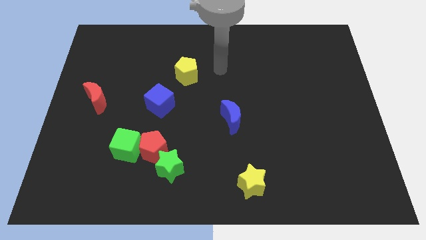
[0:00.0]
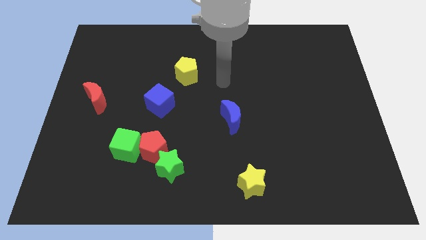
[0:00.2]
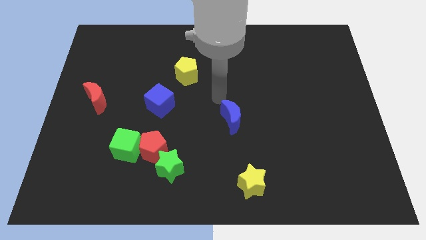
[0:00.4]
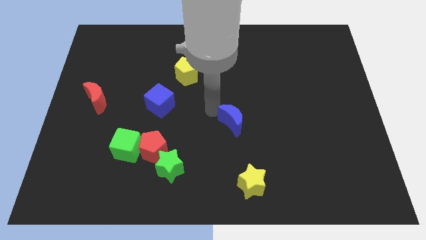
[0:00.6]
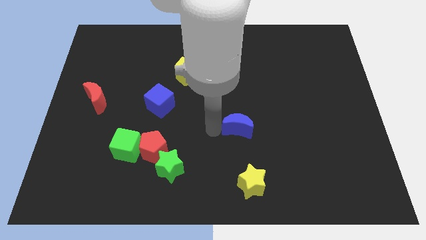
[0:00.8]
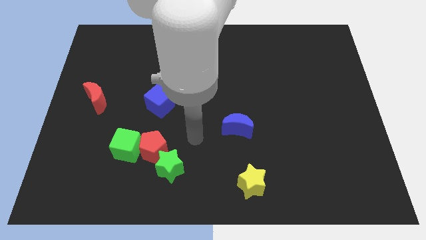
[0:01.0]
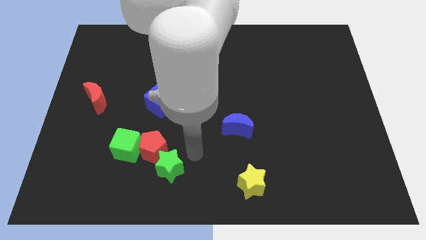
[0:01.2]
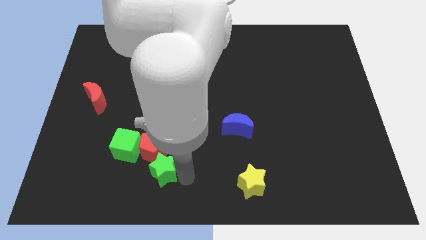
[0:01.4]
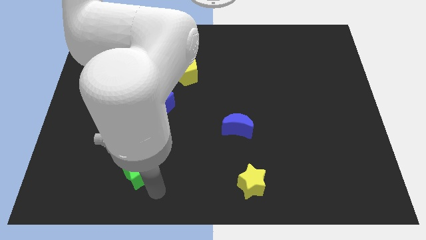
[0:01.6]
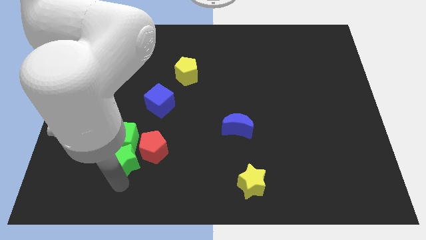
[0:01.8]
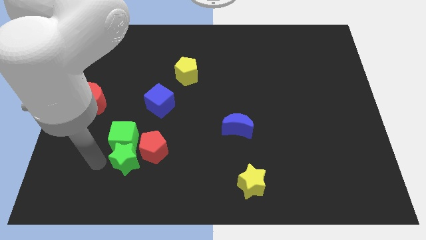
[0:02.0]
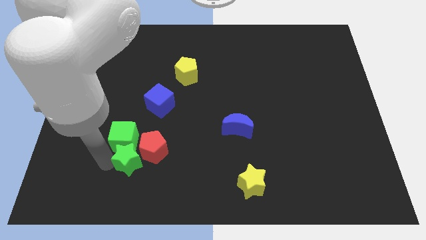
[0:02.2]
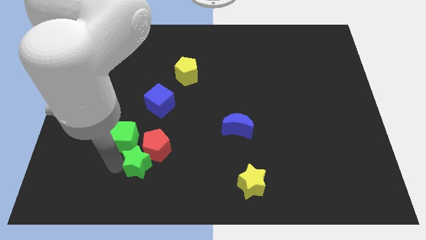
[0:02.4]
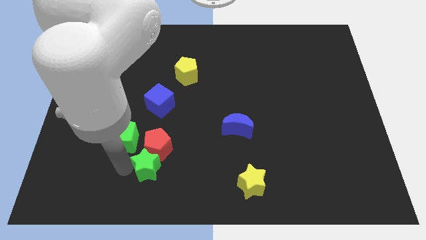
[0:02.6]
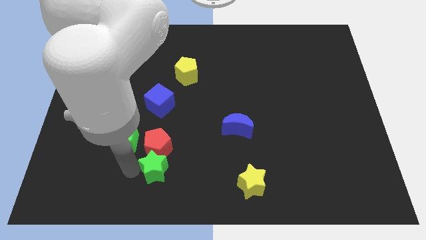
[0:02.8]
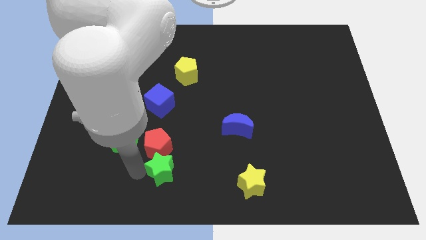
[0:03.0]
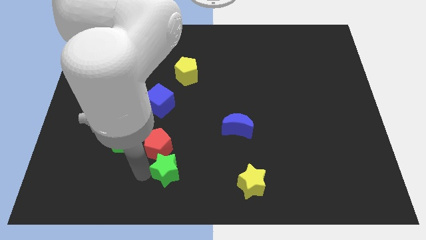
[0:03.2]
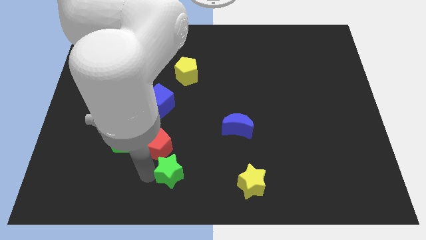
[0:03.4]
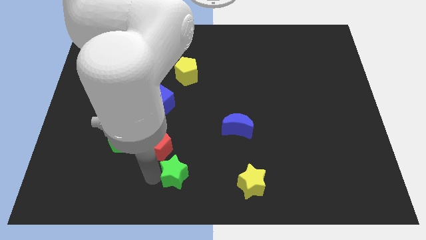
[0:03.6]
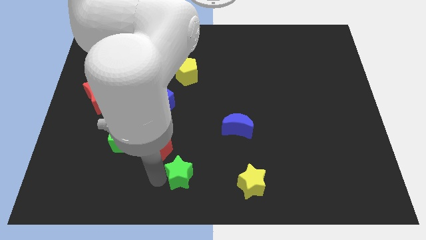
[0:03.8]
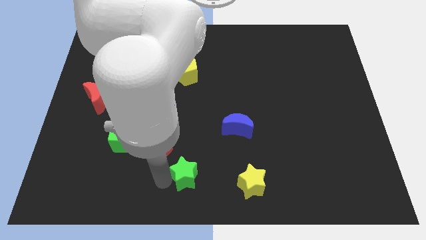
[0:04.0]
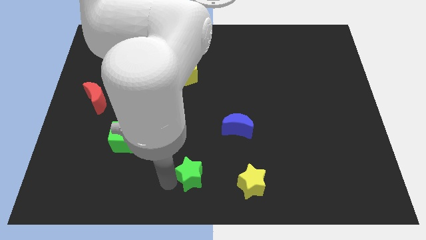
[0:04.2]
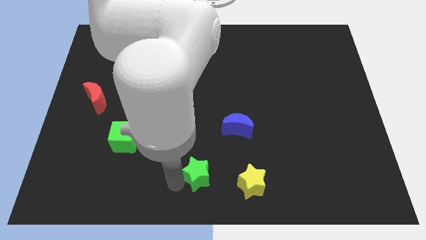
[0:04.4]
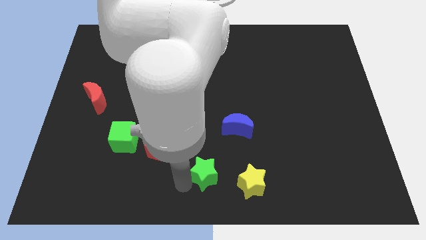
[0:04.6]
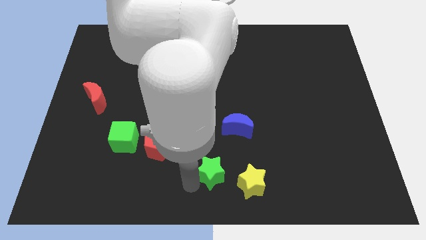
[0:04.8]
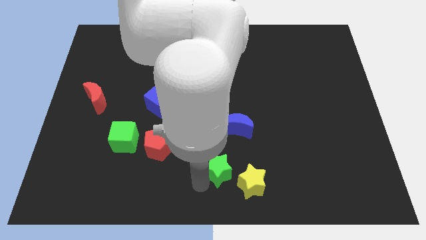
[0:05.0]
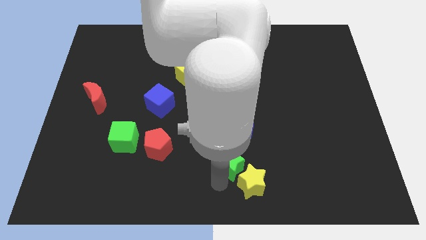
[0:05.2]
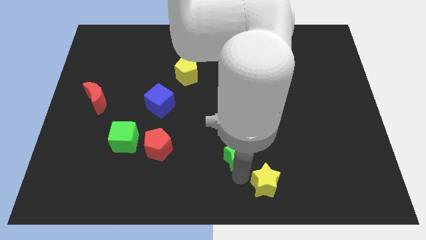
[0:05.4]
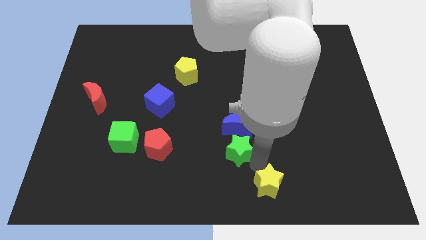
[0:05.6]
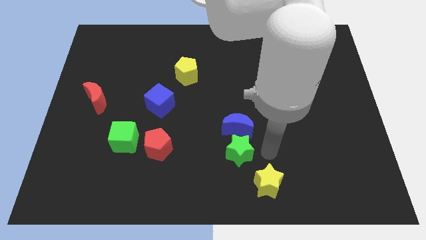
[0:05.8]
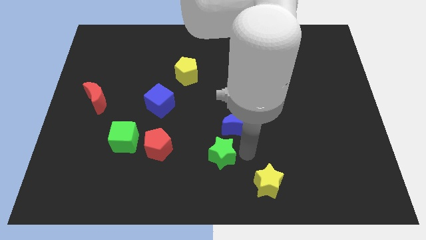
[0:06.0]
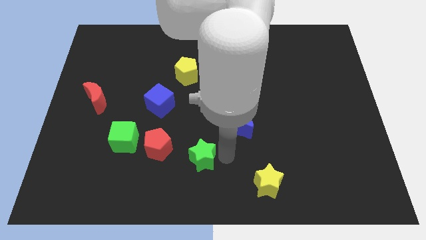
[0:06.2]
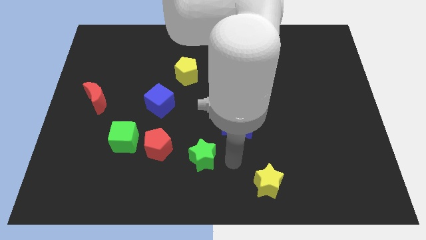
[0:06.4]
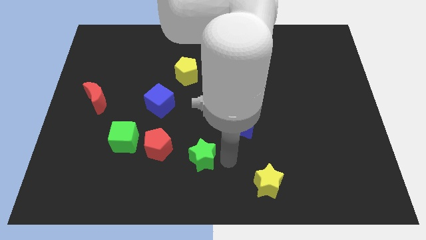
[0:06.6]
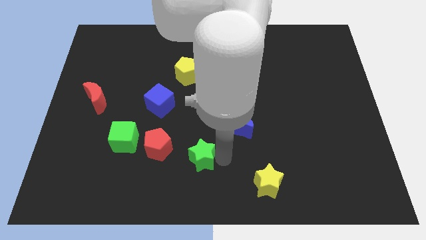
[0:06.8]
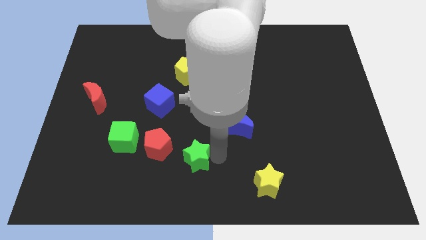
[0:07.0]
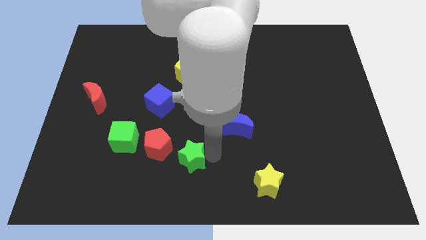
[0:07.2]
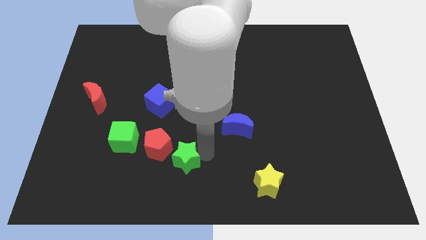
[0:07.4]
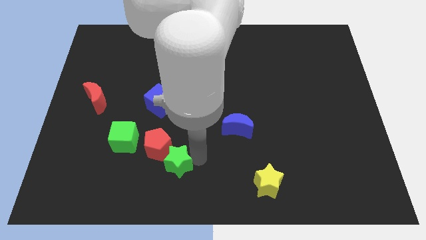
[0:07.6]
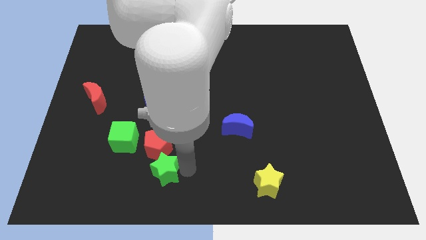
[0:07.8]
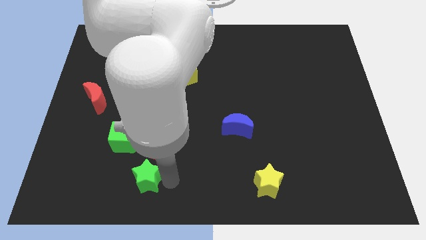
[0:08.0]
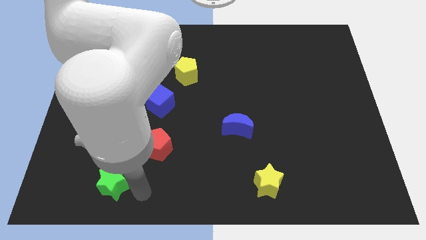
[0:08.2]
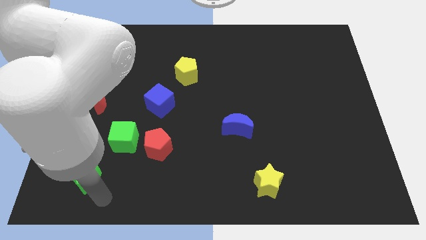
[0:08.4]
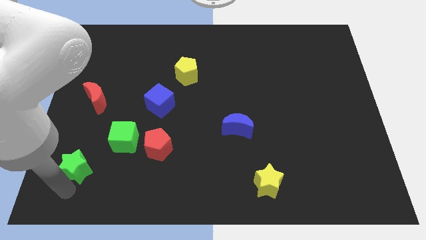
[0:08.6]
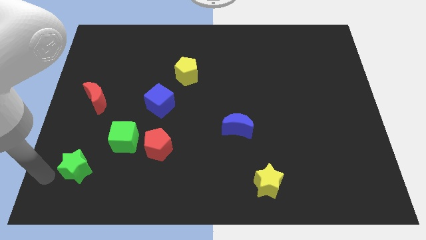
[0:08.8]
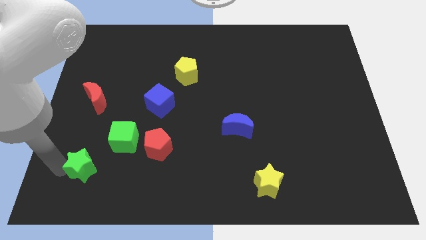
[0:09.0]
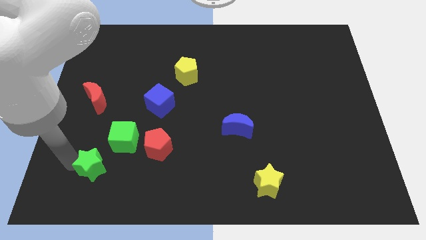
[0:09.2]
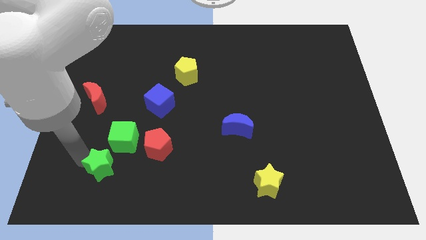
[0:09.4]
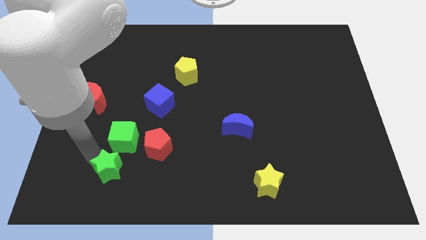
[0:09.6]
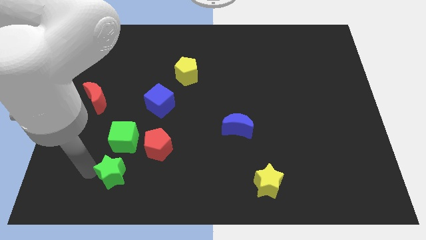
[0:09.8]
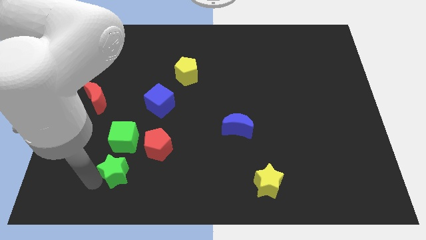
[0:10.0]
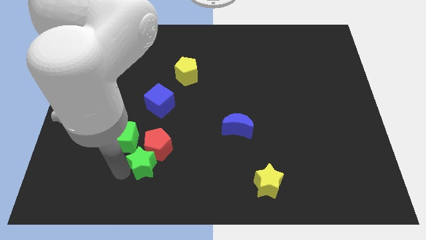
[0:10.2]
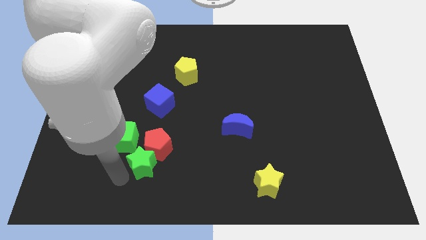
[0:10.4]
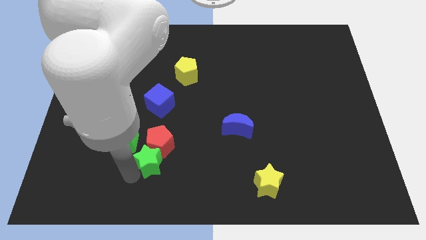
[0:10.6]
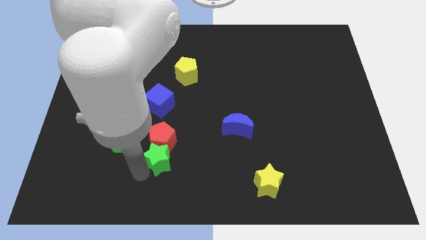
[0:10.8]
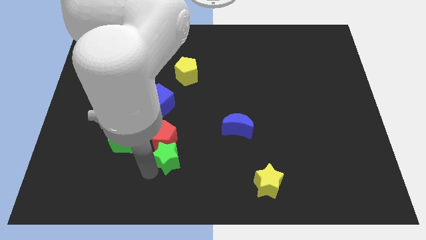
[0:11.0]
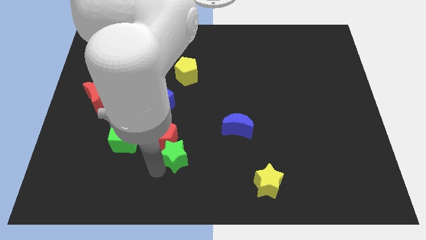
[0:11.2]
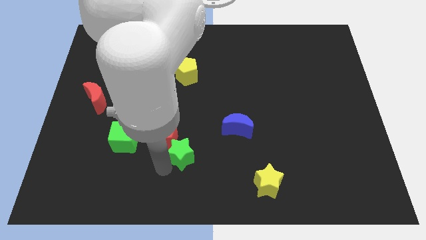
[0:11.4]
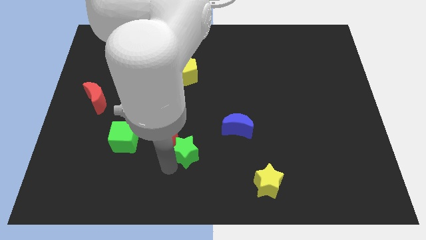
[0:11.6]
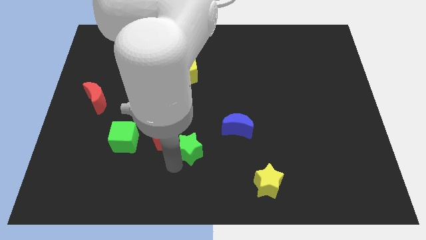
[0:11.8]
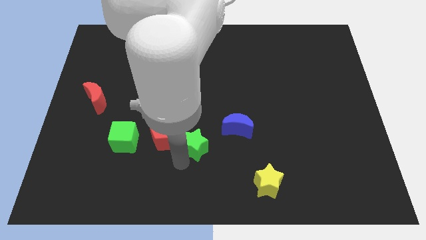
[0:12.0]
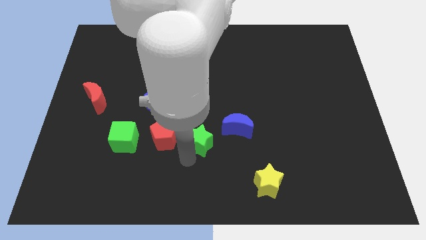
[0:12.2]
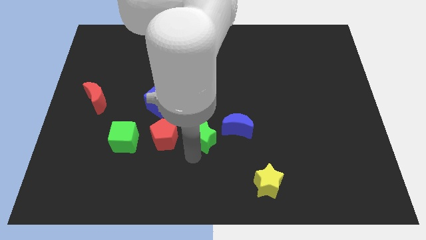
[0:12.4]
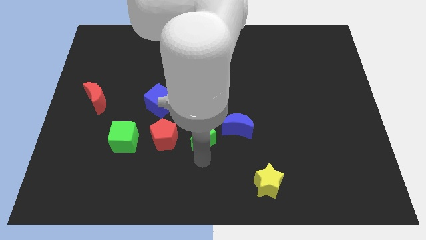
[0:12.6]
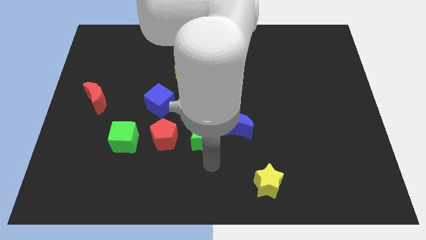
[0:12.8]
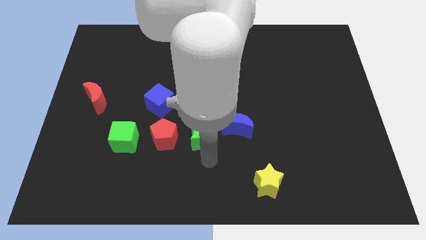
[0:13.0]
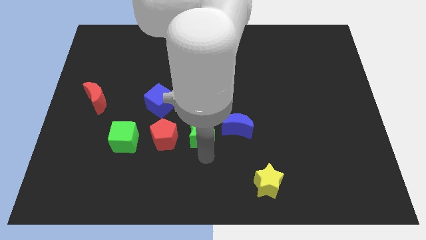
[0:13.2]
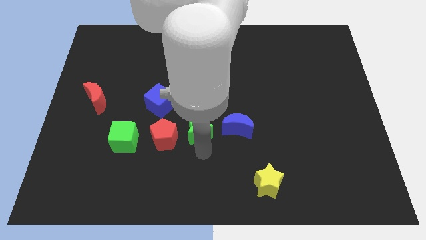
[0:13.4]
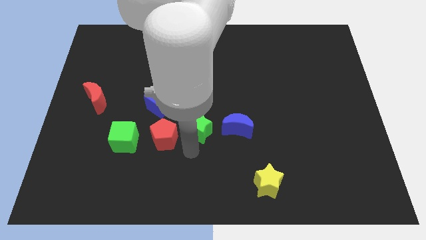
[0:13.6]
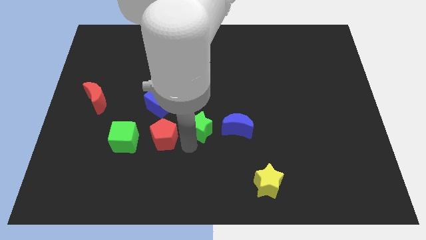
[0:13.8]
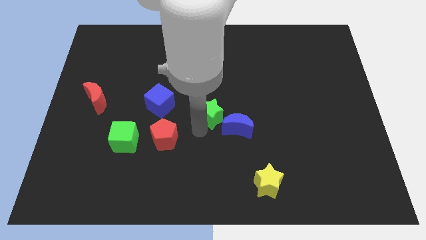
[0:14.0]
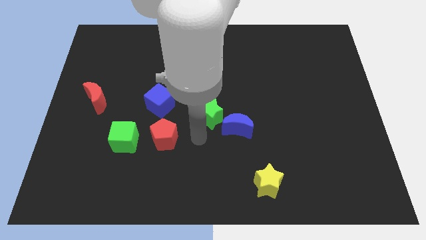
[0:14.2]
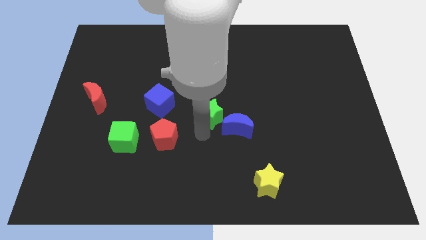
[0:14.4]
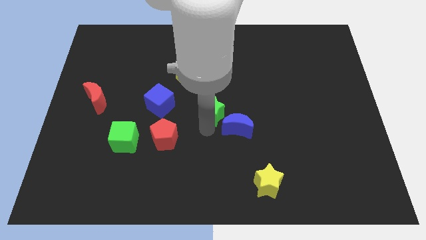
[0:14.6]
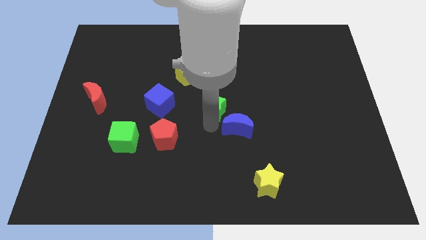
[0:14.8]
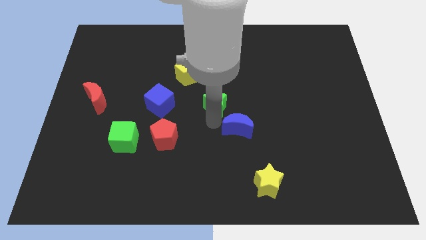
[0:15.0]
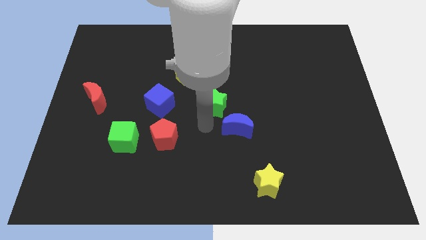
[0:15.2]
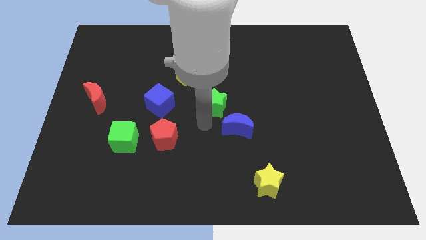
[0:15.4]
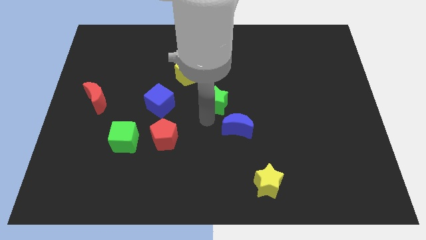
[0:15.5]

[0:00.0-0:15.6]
push the green star to the top of the blue moon
